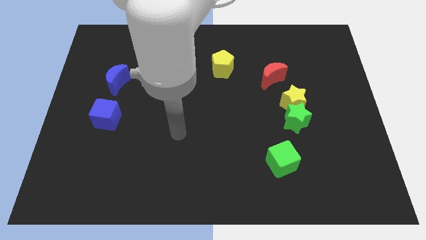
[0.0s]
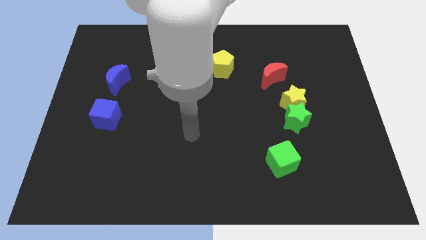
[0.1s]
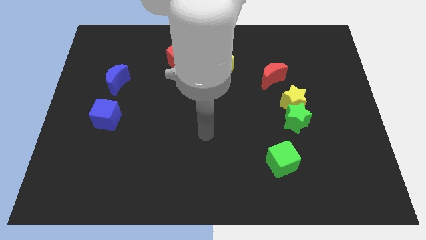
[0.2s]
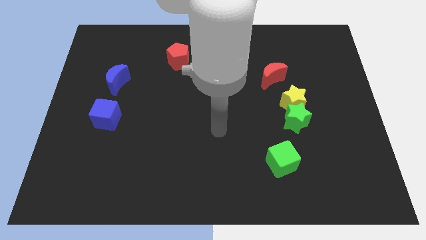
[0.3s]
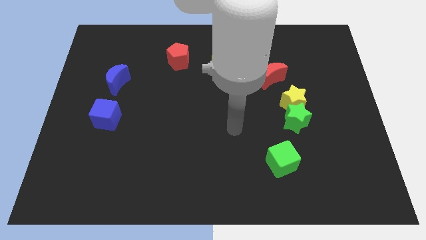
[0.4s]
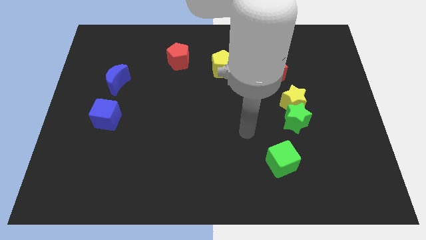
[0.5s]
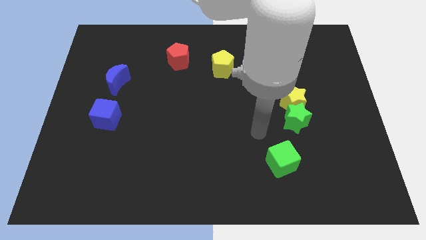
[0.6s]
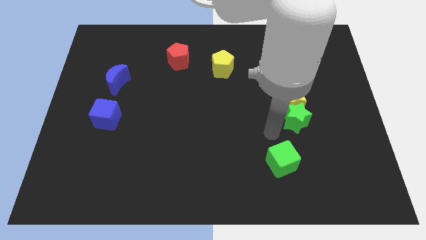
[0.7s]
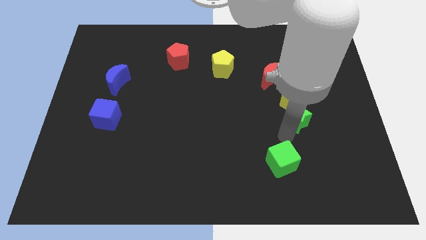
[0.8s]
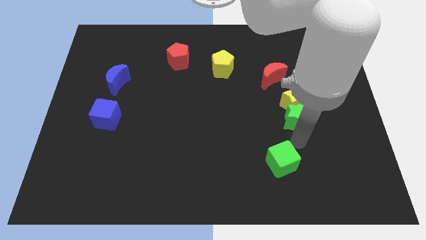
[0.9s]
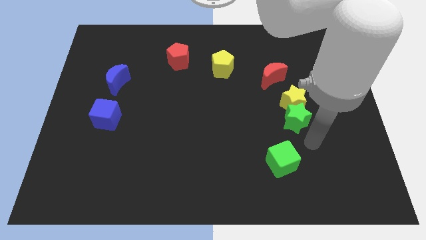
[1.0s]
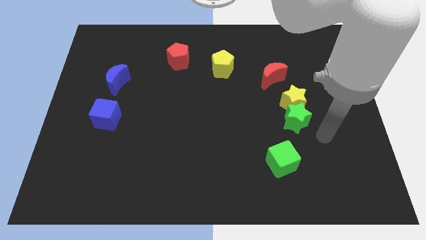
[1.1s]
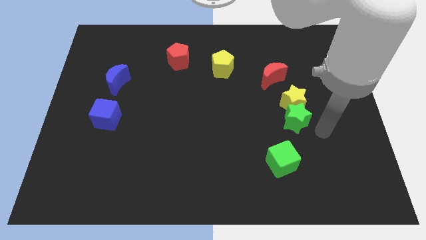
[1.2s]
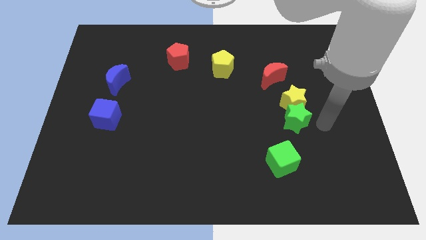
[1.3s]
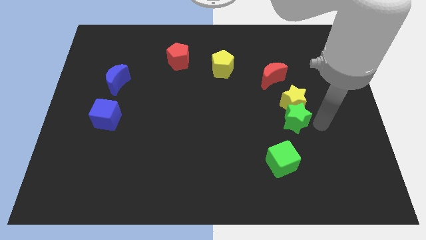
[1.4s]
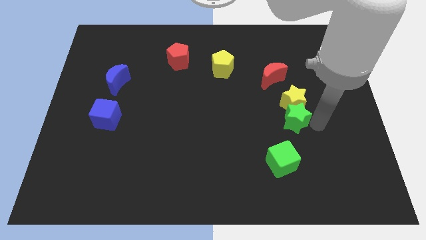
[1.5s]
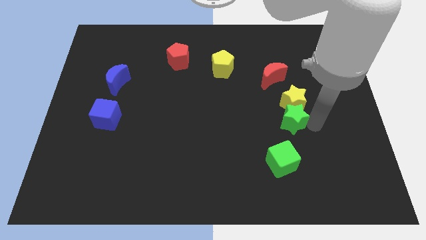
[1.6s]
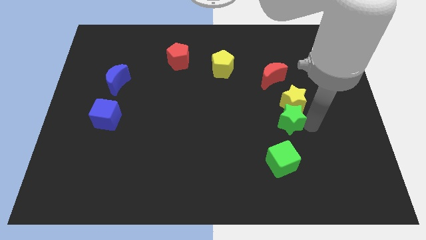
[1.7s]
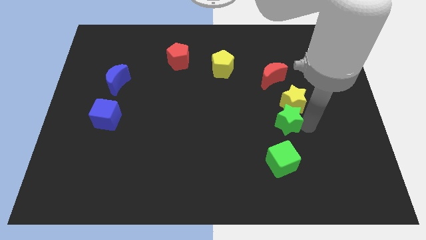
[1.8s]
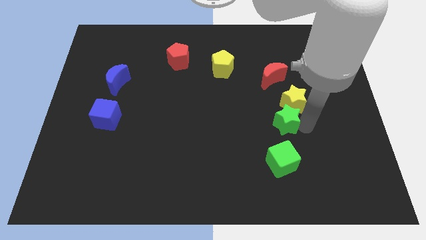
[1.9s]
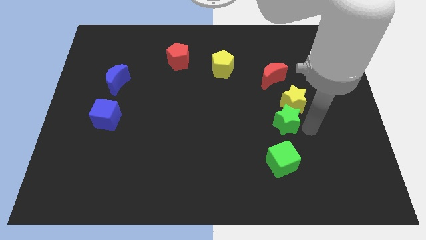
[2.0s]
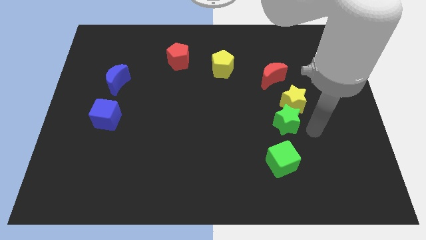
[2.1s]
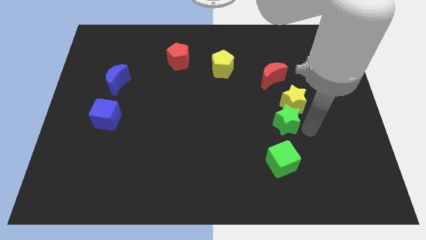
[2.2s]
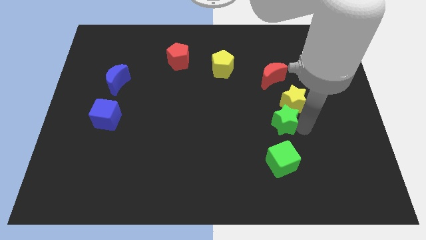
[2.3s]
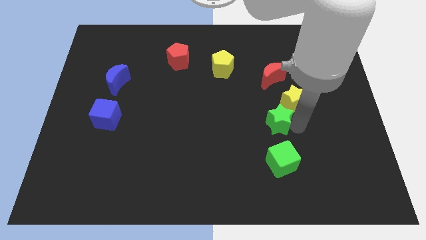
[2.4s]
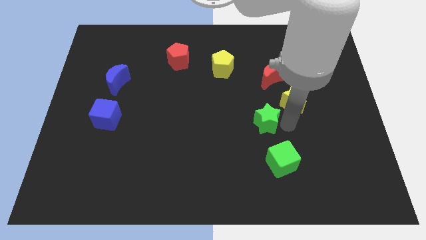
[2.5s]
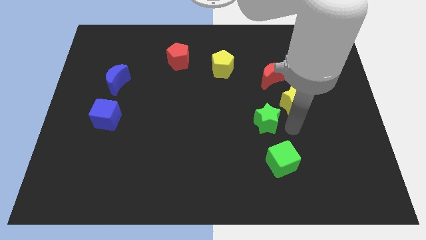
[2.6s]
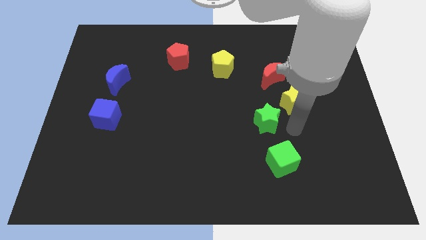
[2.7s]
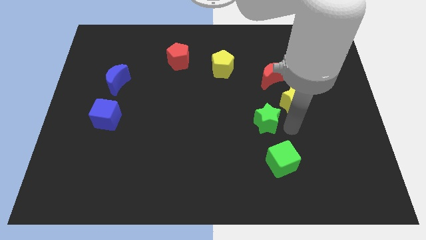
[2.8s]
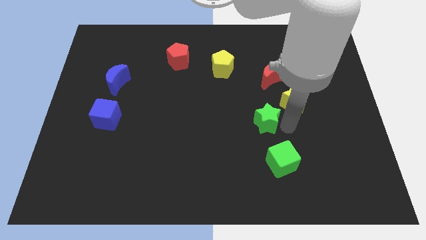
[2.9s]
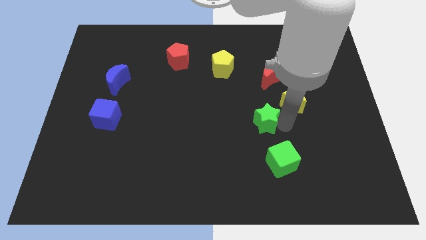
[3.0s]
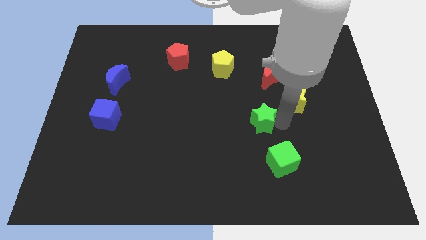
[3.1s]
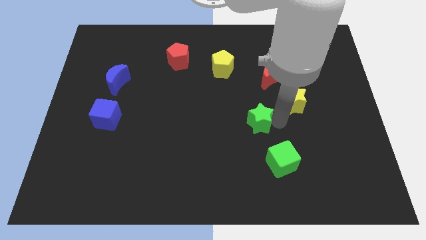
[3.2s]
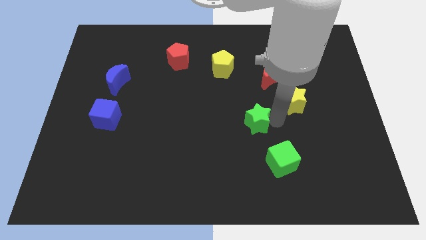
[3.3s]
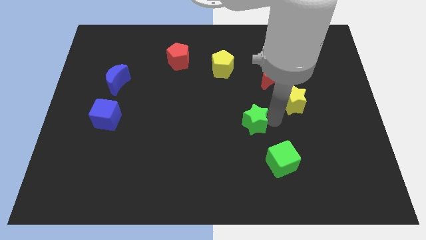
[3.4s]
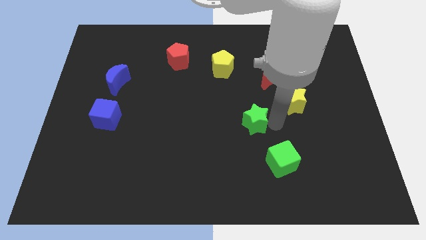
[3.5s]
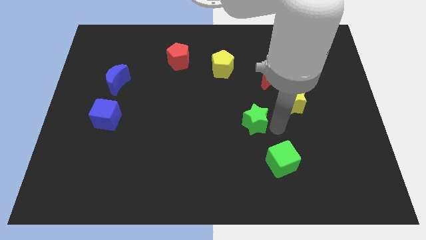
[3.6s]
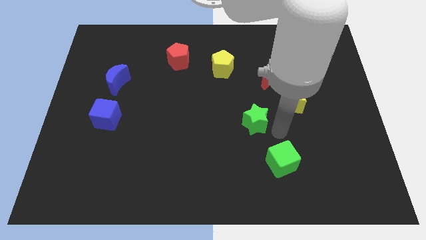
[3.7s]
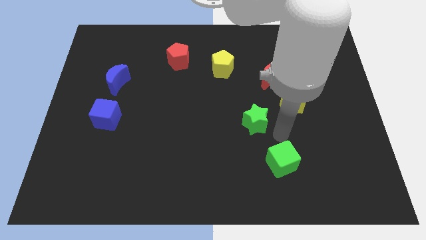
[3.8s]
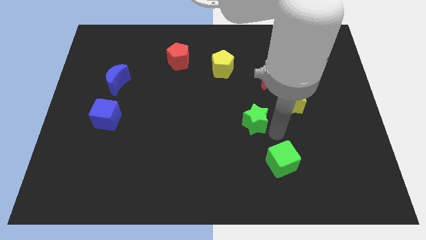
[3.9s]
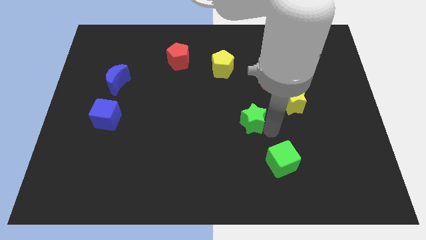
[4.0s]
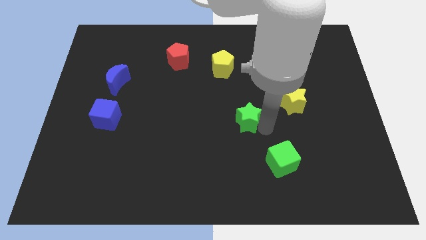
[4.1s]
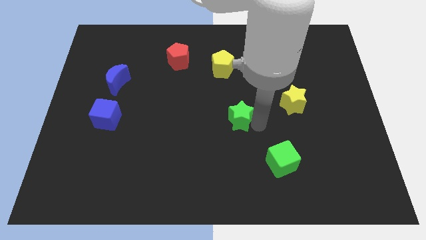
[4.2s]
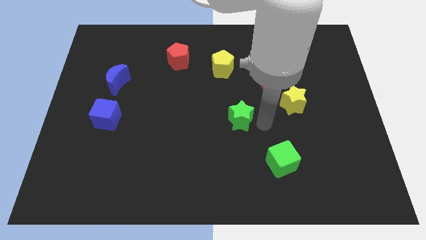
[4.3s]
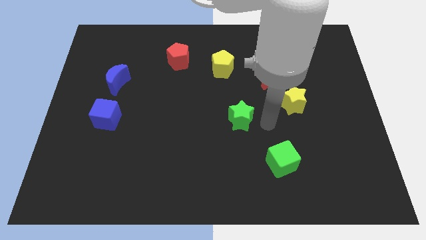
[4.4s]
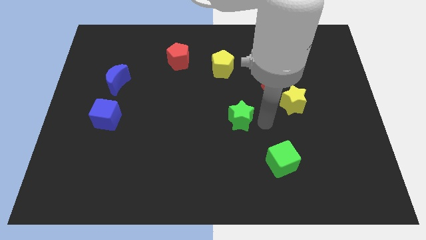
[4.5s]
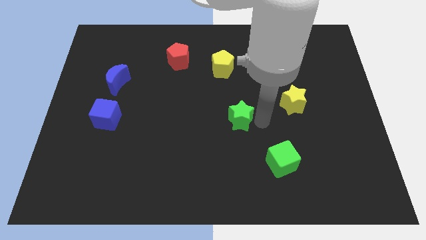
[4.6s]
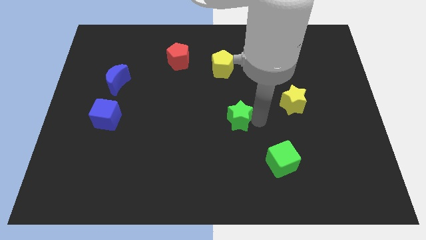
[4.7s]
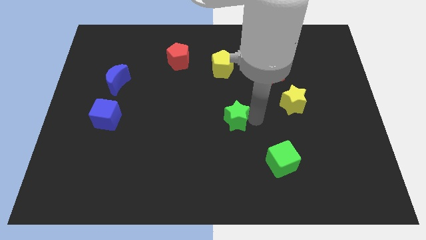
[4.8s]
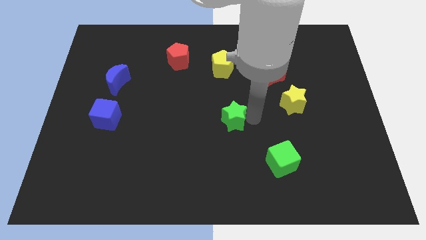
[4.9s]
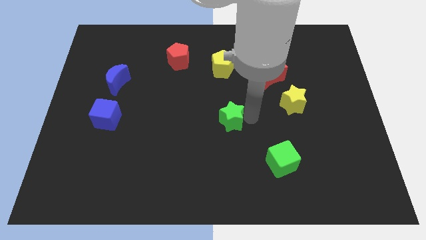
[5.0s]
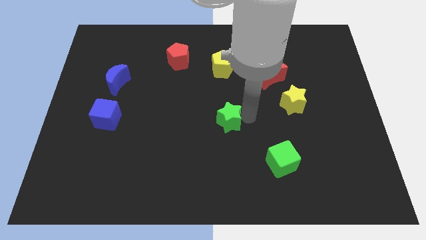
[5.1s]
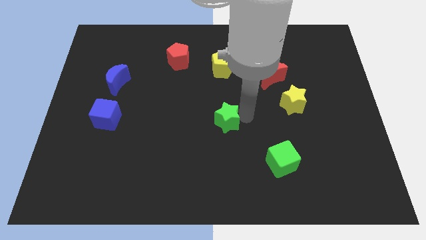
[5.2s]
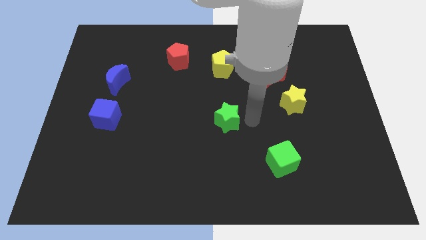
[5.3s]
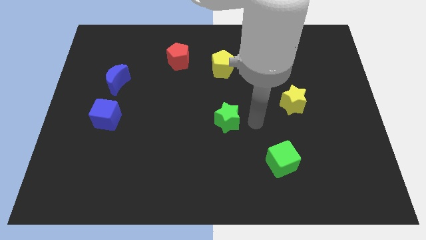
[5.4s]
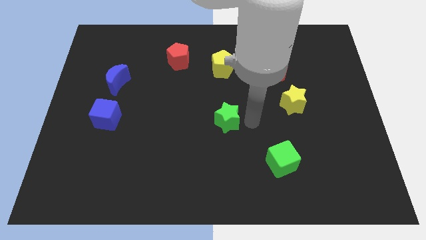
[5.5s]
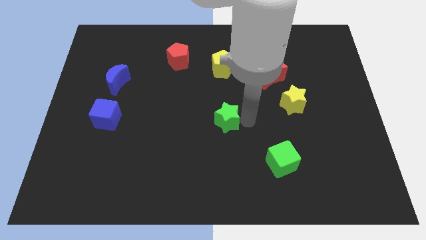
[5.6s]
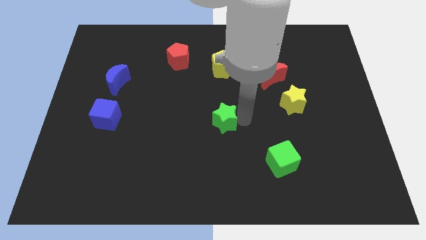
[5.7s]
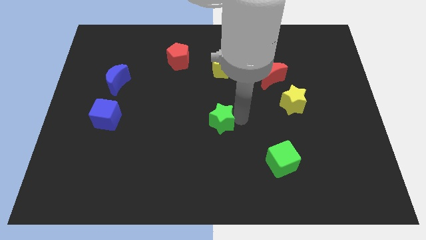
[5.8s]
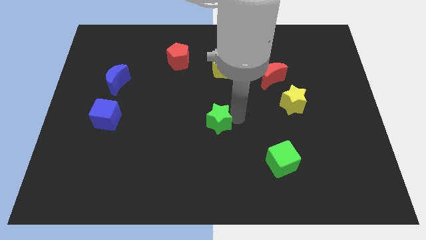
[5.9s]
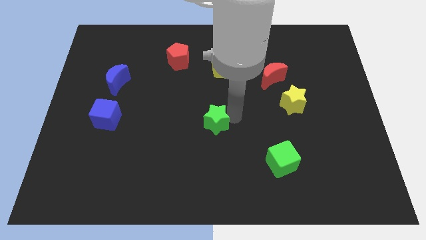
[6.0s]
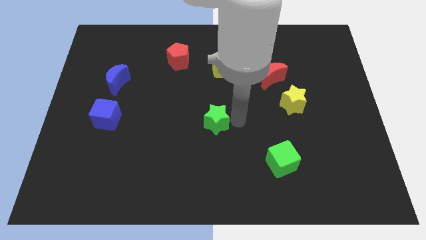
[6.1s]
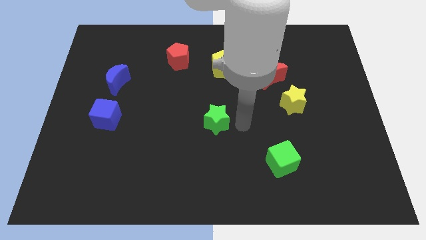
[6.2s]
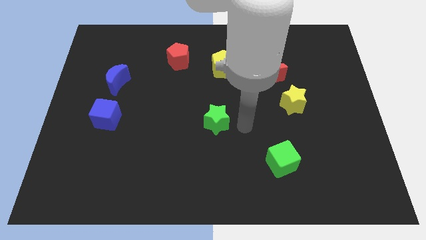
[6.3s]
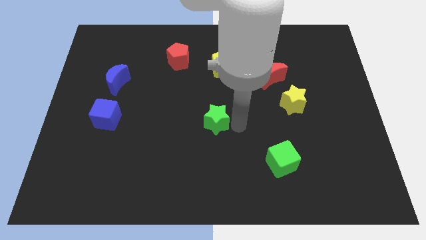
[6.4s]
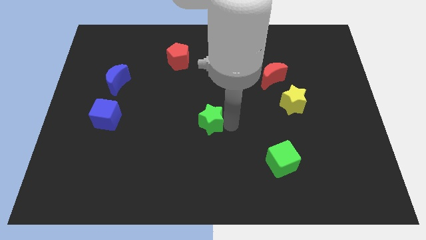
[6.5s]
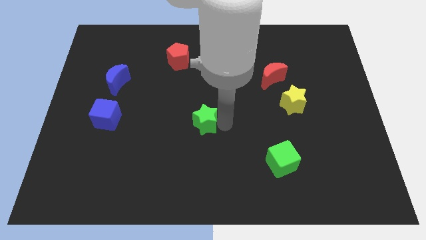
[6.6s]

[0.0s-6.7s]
move the green star left

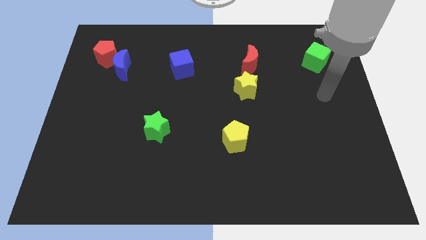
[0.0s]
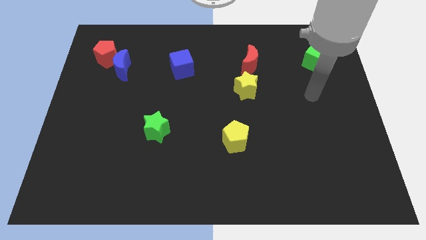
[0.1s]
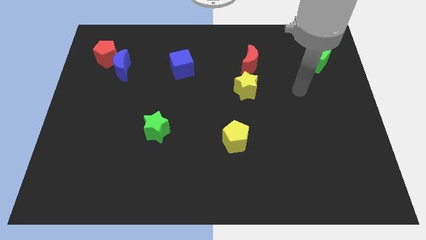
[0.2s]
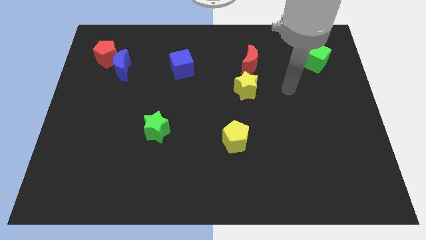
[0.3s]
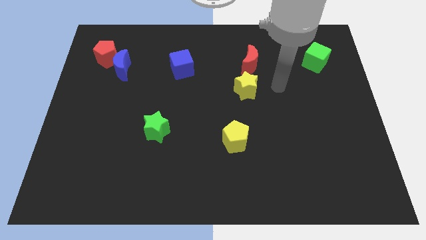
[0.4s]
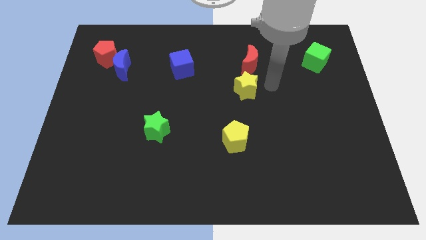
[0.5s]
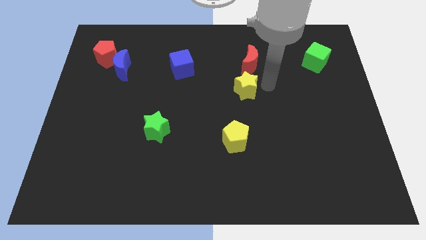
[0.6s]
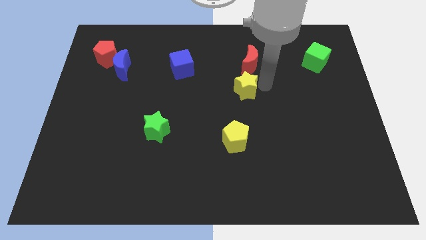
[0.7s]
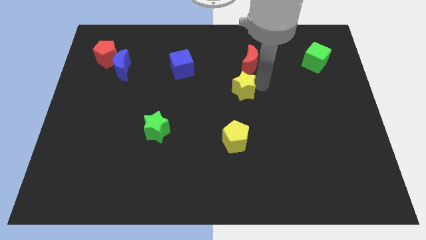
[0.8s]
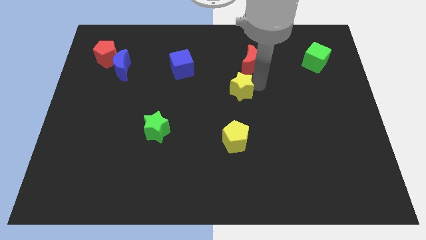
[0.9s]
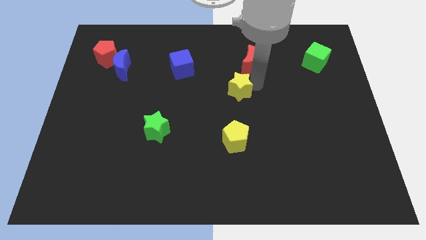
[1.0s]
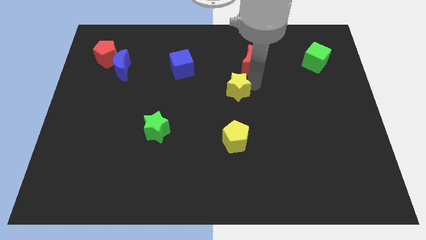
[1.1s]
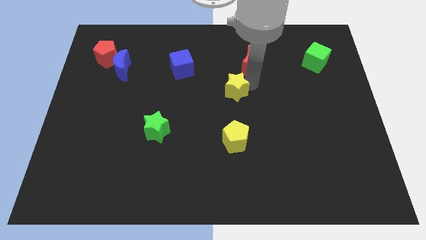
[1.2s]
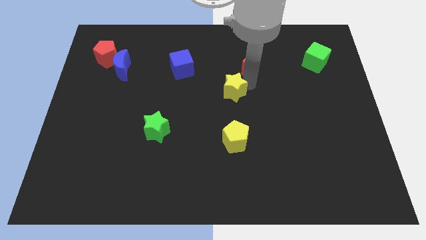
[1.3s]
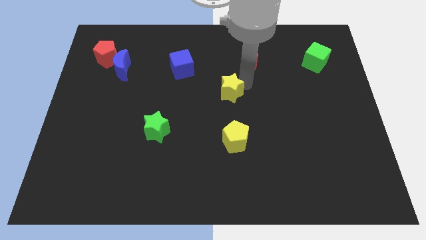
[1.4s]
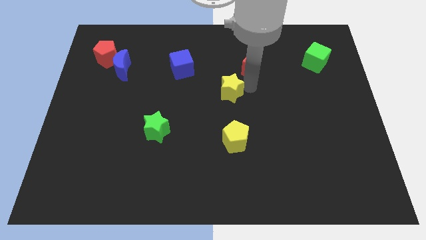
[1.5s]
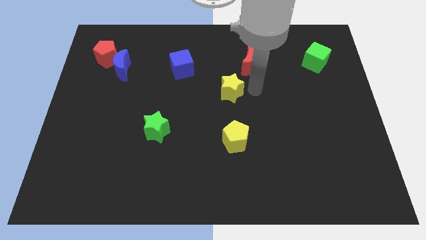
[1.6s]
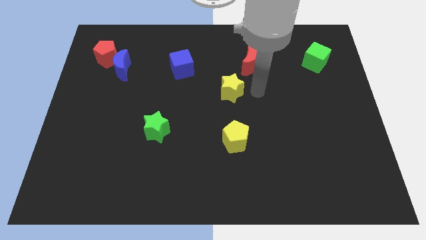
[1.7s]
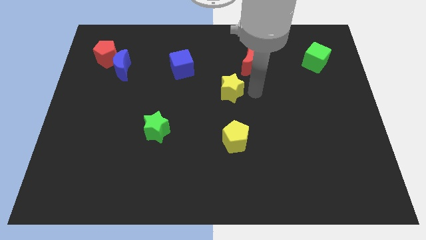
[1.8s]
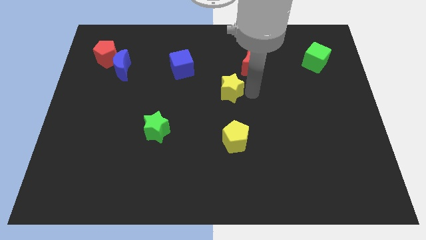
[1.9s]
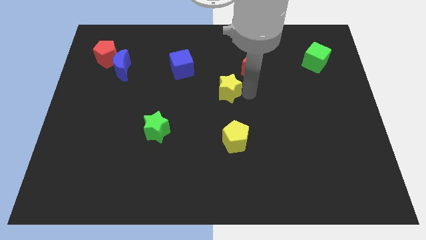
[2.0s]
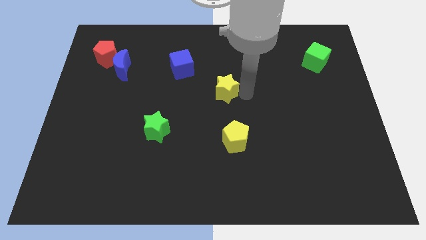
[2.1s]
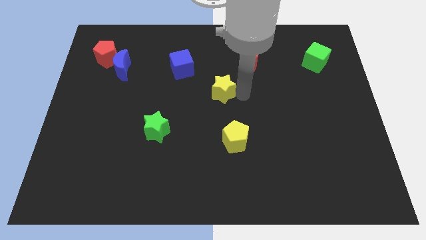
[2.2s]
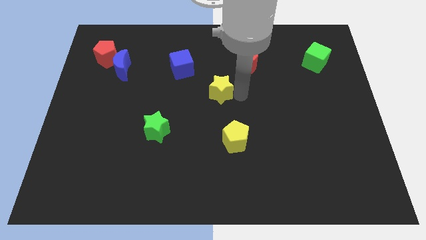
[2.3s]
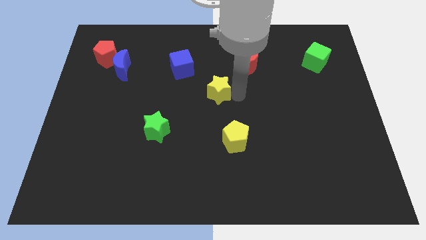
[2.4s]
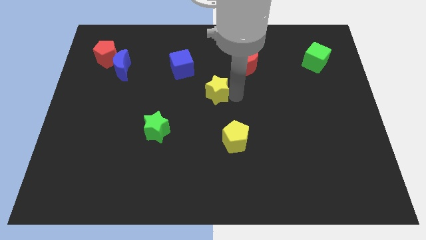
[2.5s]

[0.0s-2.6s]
slightly push the yellow star left
